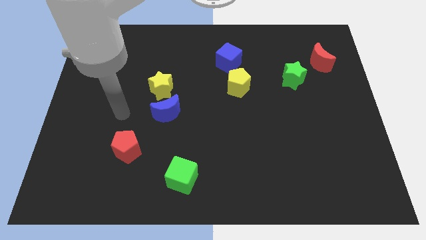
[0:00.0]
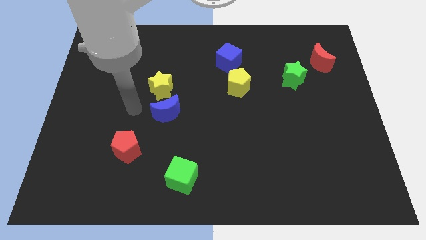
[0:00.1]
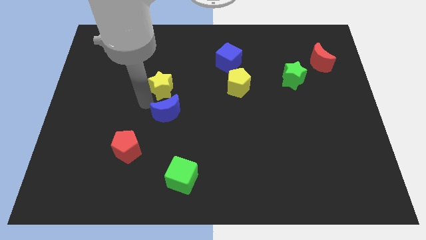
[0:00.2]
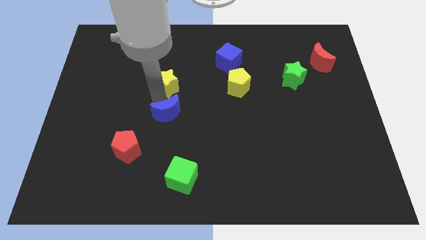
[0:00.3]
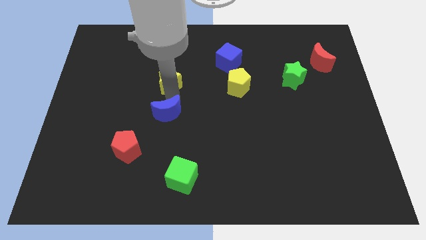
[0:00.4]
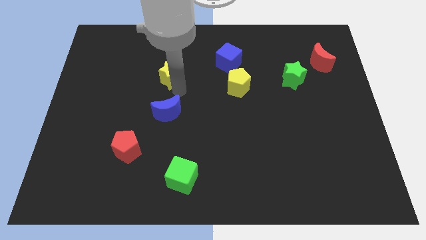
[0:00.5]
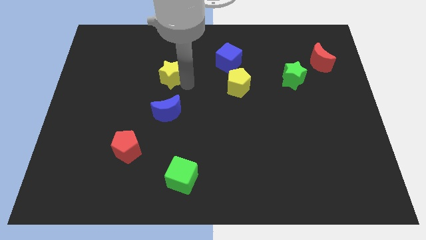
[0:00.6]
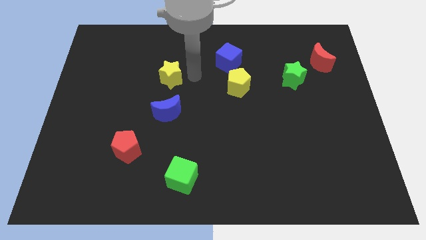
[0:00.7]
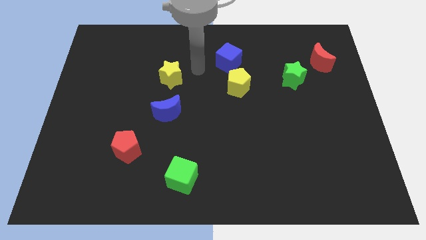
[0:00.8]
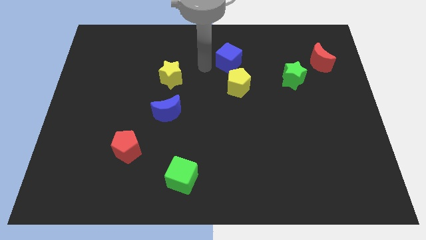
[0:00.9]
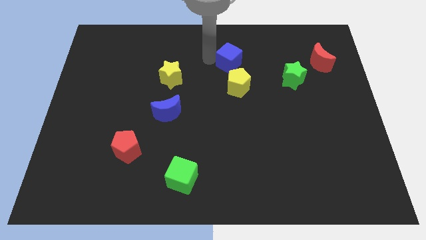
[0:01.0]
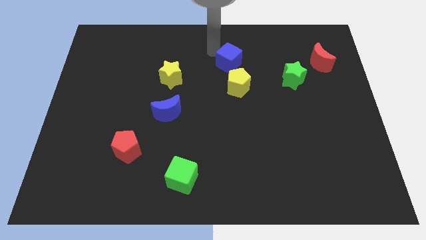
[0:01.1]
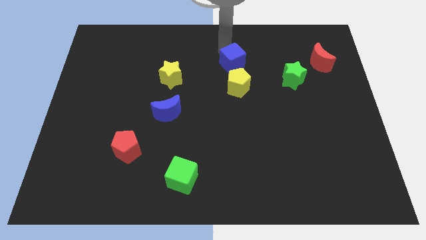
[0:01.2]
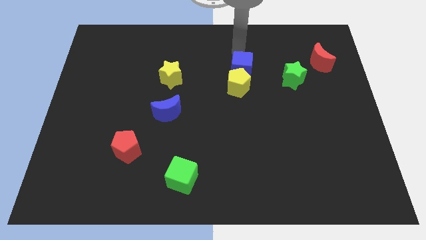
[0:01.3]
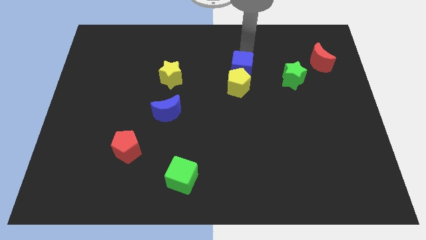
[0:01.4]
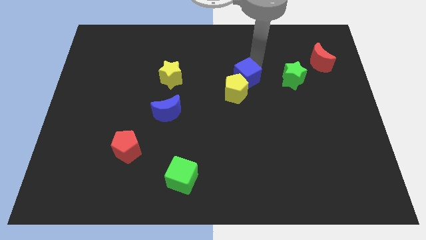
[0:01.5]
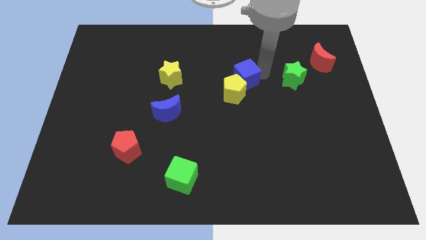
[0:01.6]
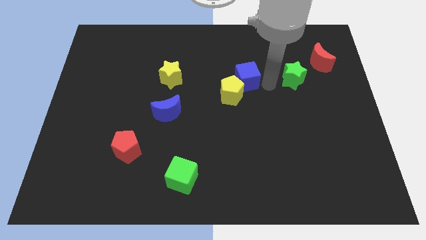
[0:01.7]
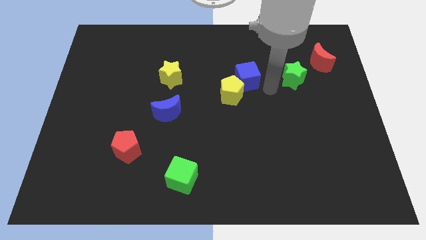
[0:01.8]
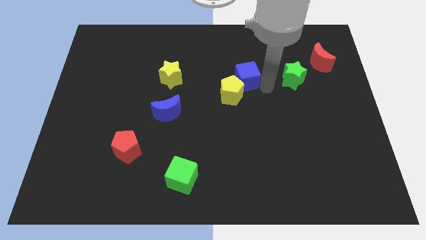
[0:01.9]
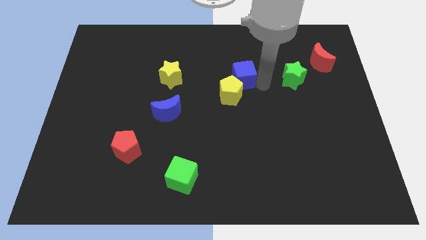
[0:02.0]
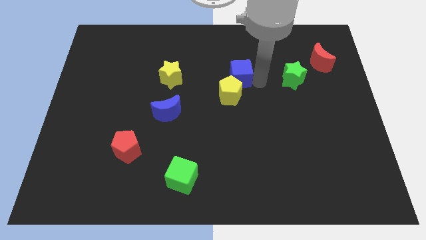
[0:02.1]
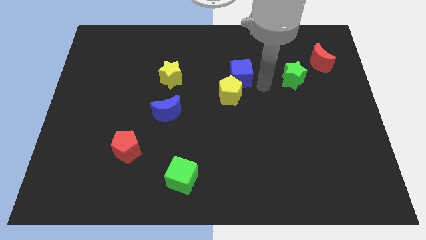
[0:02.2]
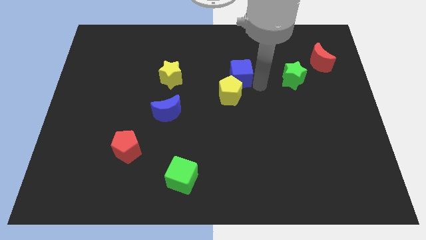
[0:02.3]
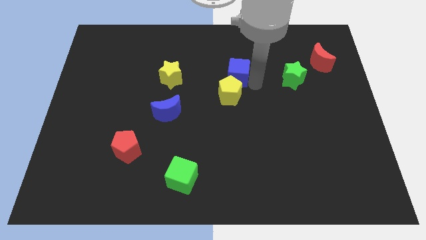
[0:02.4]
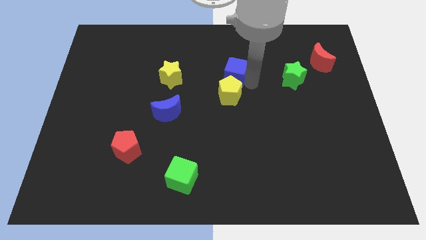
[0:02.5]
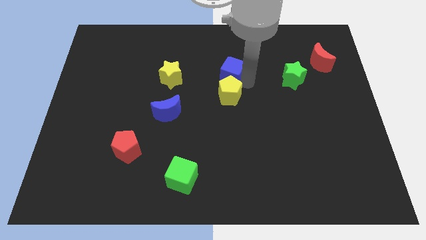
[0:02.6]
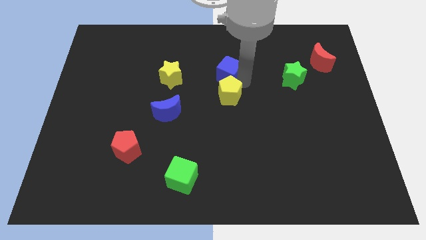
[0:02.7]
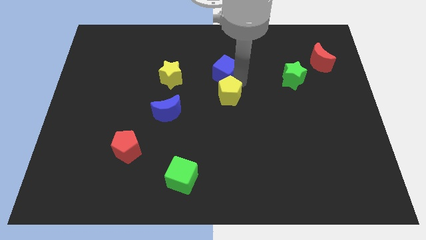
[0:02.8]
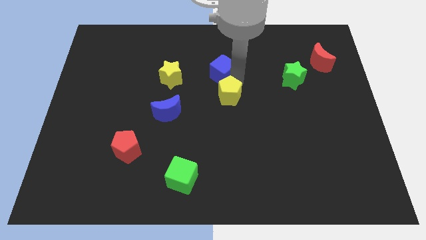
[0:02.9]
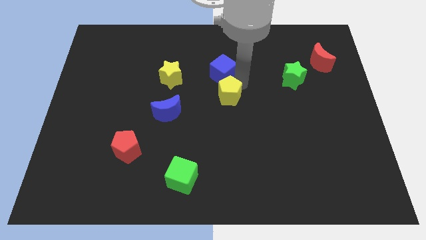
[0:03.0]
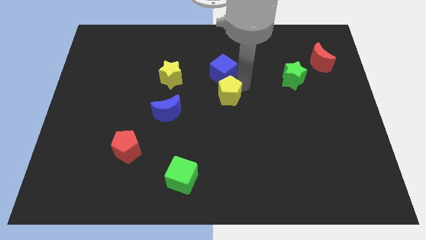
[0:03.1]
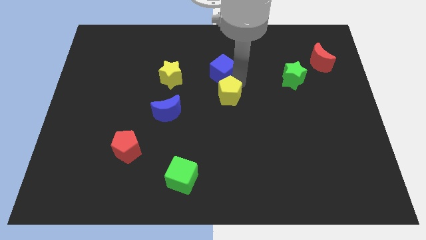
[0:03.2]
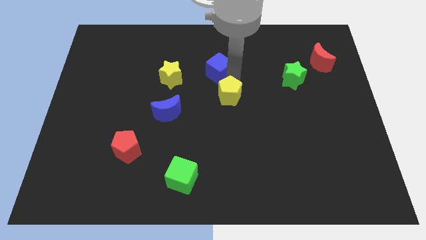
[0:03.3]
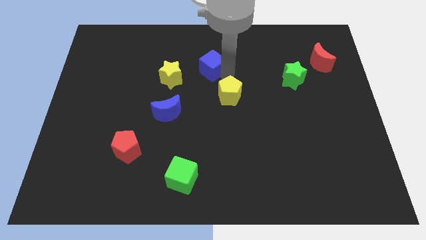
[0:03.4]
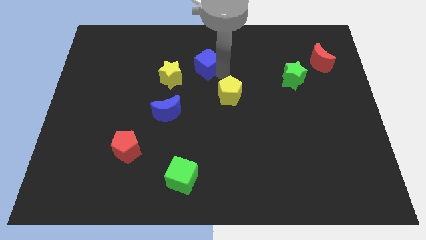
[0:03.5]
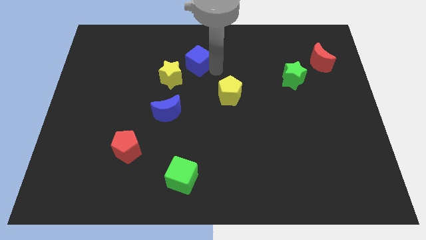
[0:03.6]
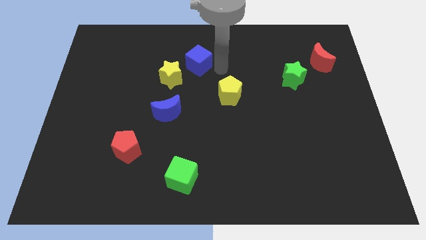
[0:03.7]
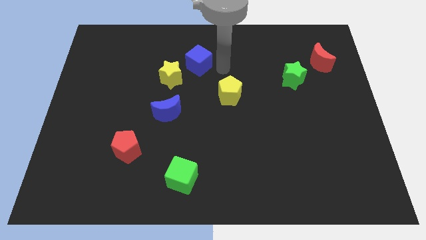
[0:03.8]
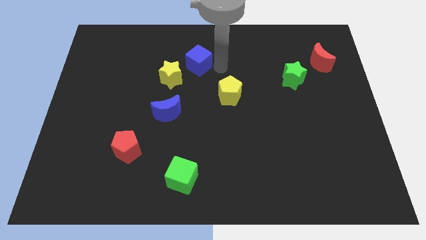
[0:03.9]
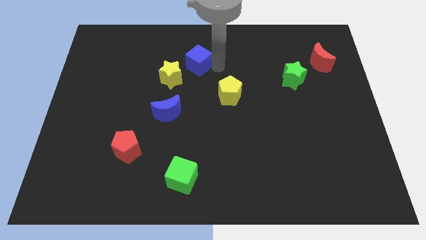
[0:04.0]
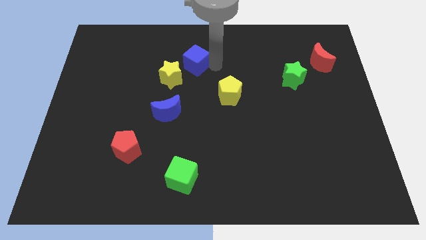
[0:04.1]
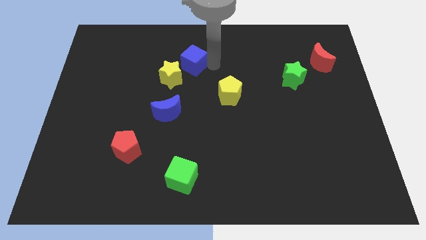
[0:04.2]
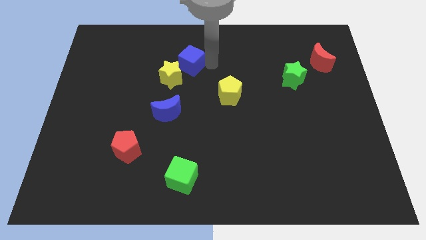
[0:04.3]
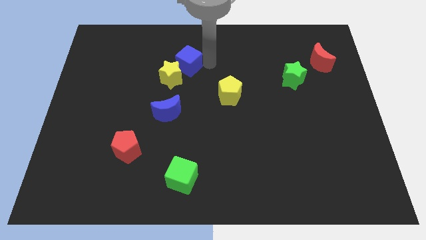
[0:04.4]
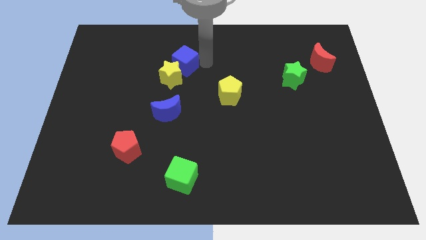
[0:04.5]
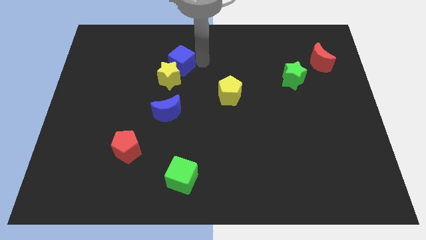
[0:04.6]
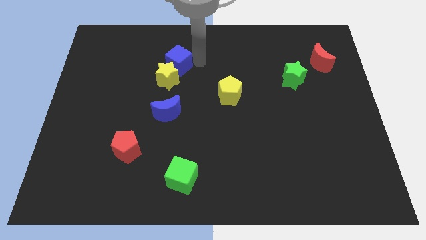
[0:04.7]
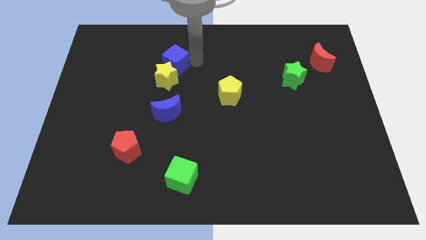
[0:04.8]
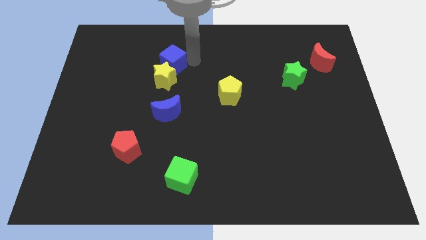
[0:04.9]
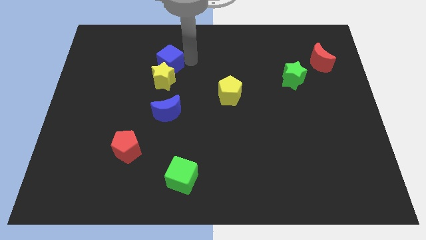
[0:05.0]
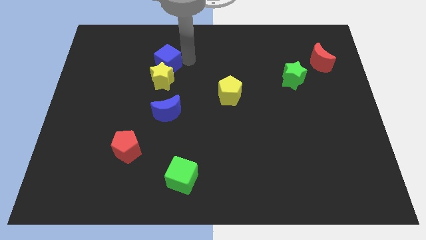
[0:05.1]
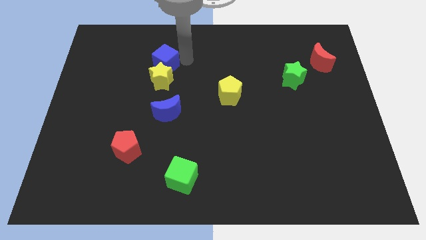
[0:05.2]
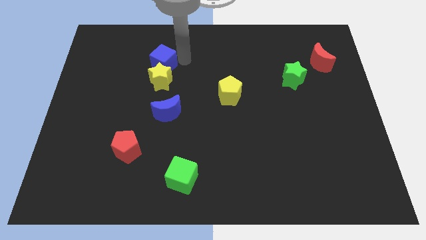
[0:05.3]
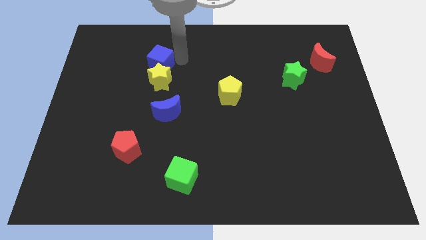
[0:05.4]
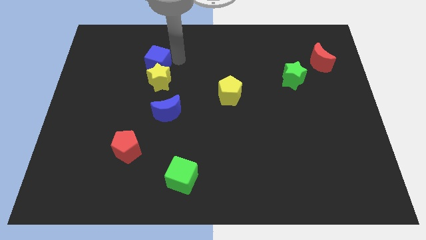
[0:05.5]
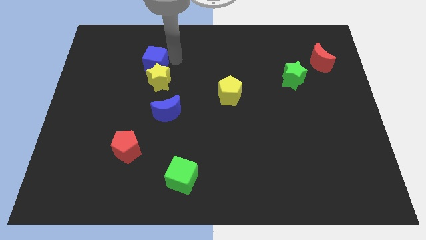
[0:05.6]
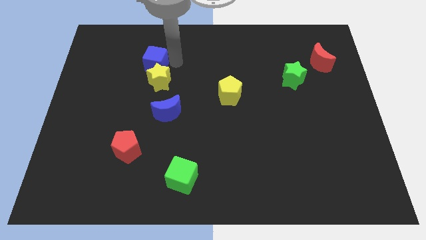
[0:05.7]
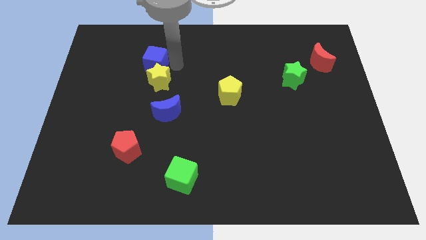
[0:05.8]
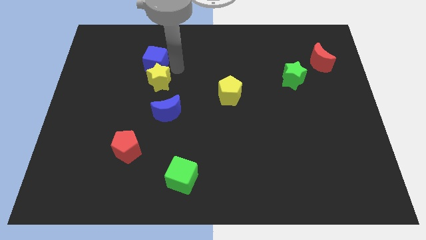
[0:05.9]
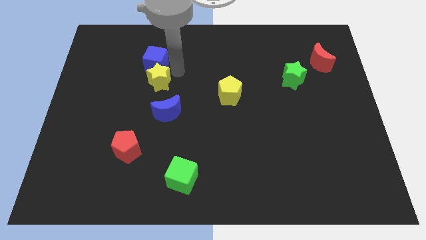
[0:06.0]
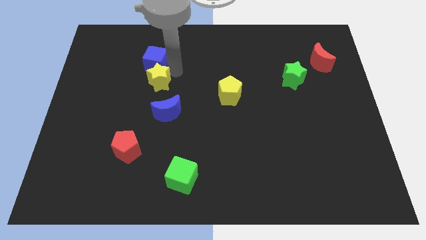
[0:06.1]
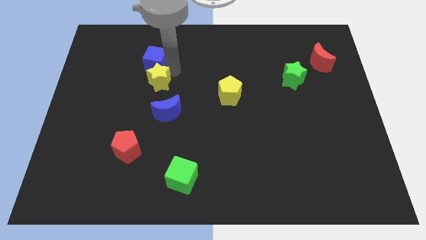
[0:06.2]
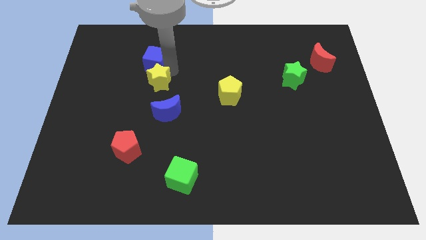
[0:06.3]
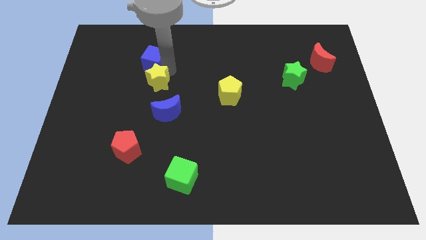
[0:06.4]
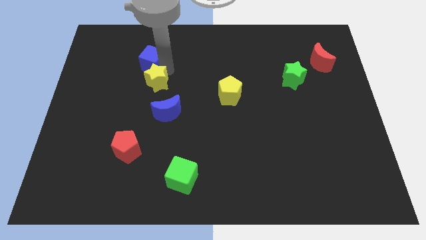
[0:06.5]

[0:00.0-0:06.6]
move the blue cube left

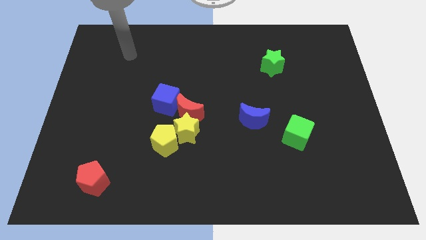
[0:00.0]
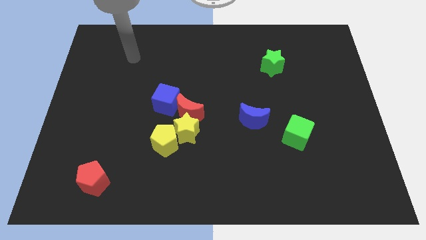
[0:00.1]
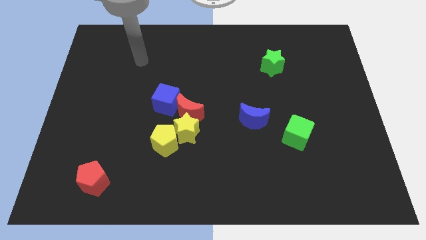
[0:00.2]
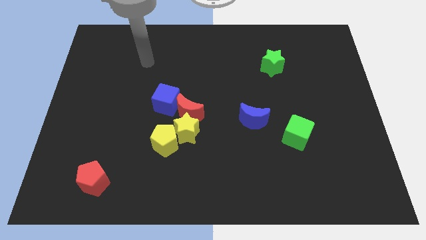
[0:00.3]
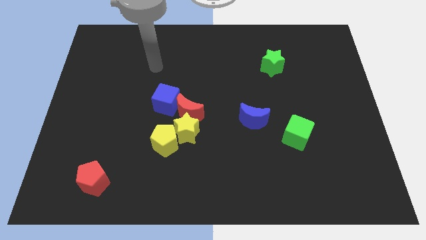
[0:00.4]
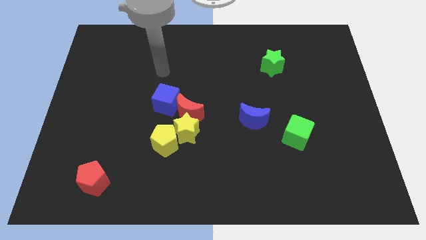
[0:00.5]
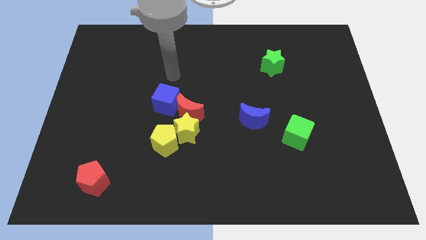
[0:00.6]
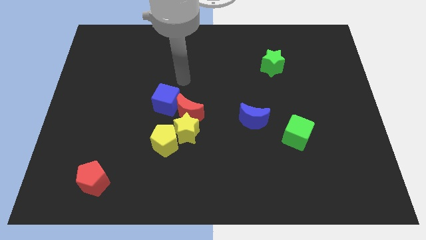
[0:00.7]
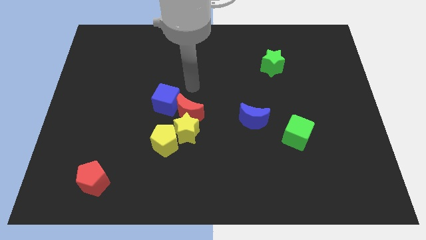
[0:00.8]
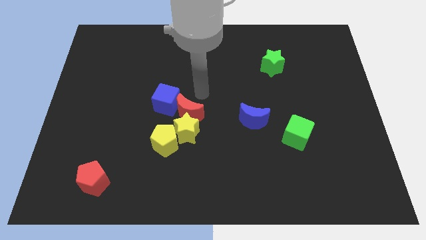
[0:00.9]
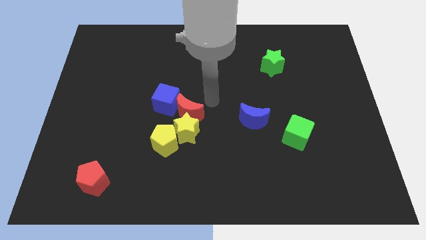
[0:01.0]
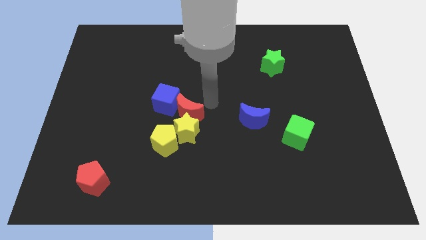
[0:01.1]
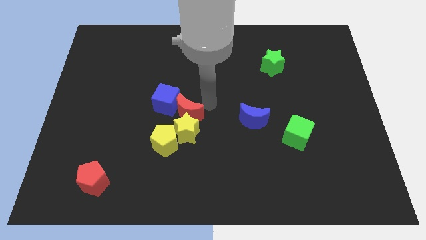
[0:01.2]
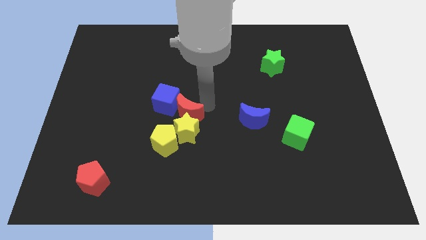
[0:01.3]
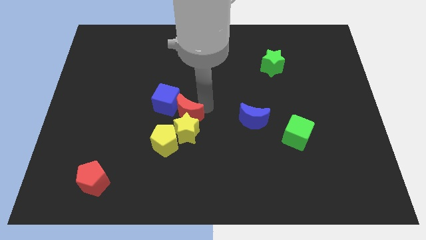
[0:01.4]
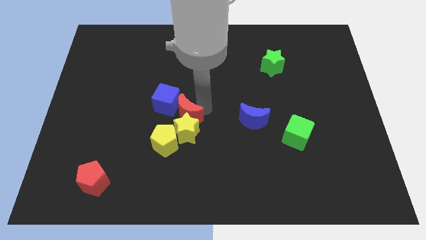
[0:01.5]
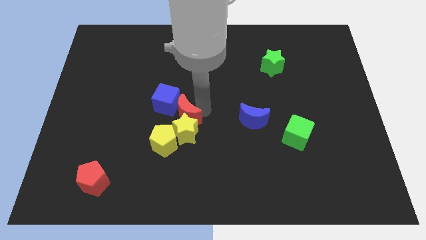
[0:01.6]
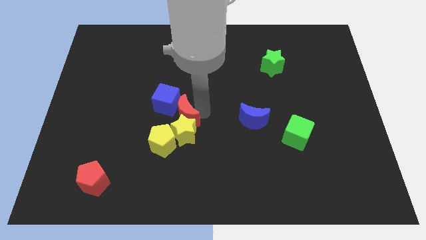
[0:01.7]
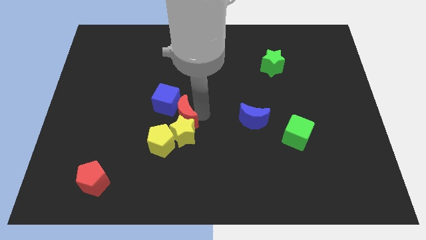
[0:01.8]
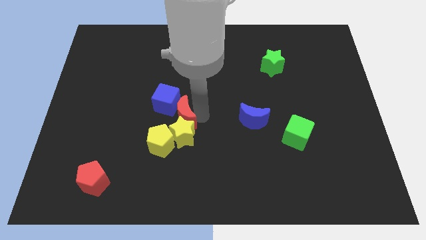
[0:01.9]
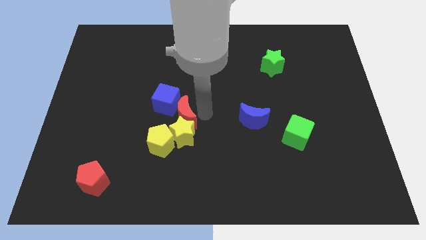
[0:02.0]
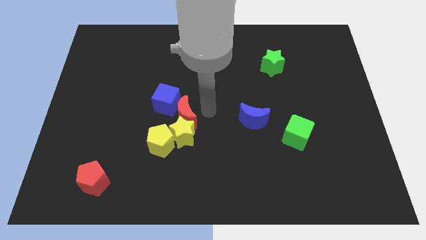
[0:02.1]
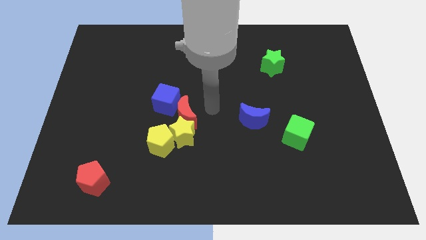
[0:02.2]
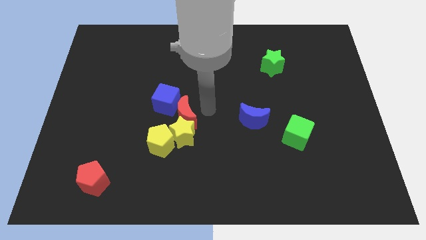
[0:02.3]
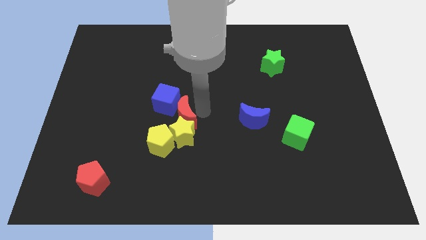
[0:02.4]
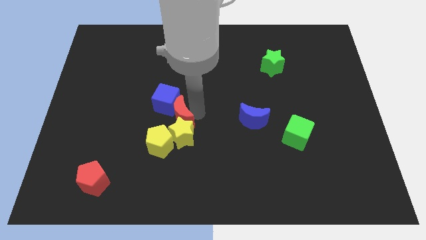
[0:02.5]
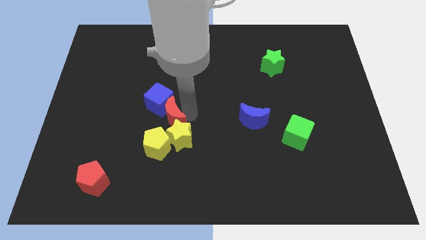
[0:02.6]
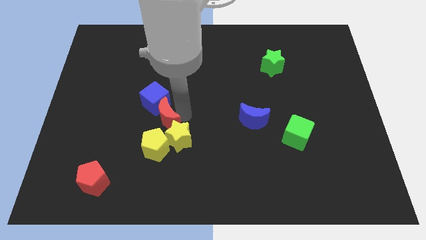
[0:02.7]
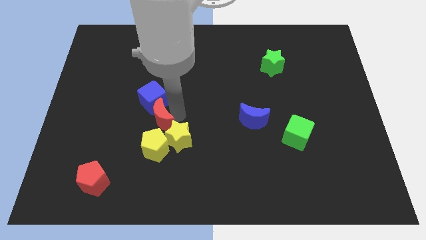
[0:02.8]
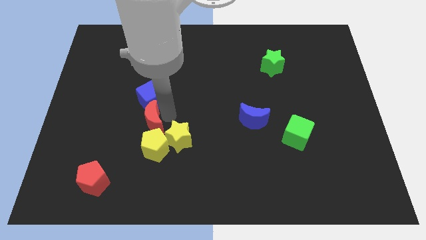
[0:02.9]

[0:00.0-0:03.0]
slide the red moon downwards and to the left diagonally slightly
